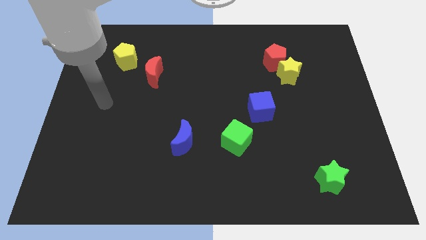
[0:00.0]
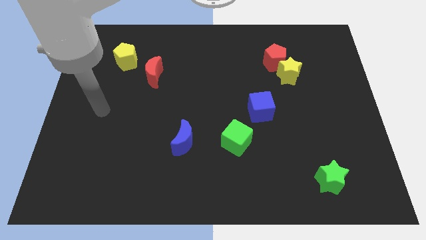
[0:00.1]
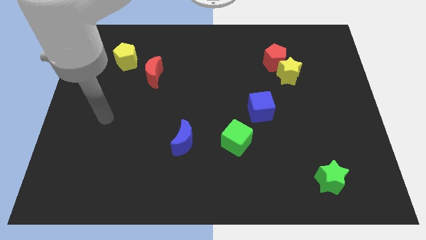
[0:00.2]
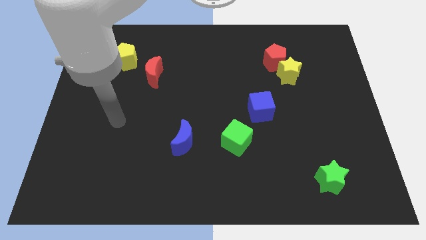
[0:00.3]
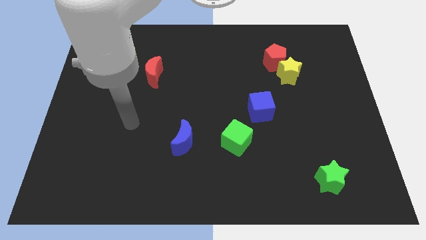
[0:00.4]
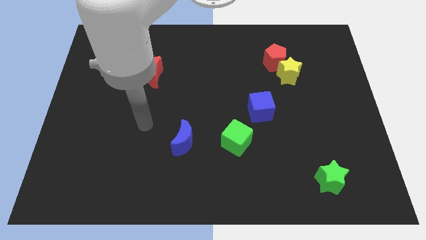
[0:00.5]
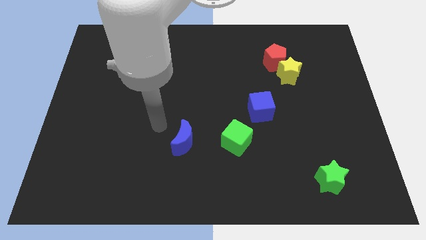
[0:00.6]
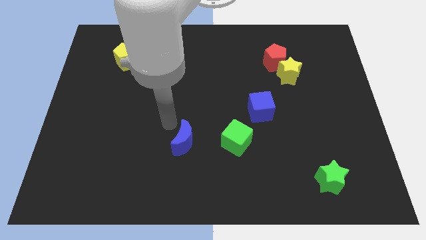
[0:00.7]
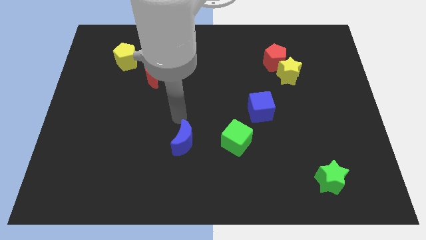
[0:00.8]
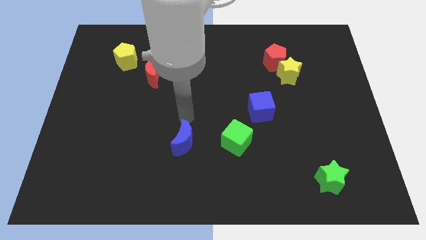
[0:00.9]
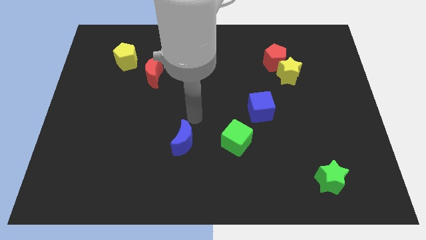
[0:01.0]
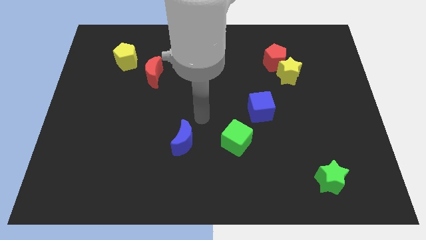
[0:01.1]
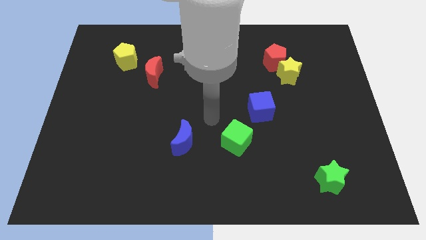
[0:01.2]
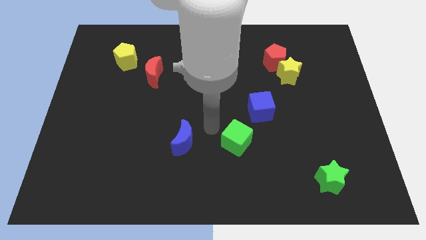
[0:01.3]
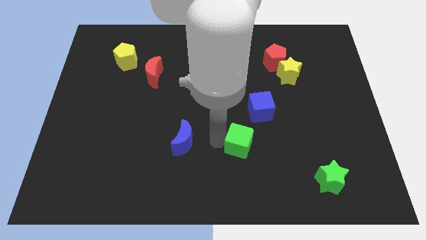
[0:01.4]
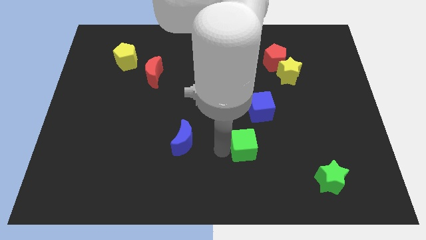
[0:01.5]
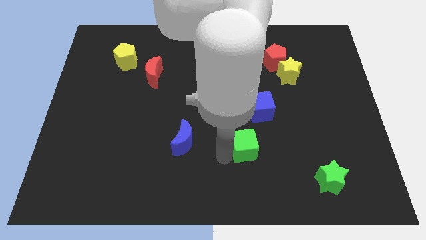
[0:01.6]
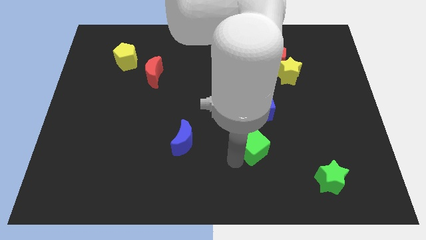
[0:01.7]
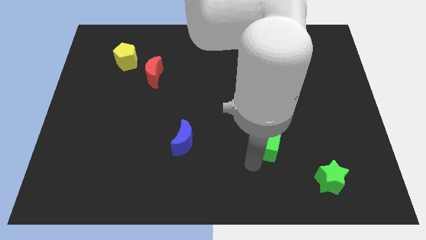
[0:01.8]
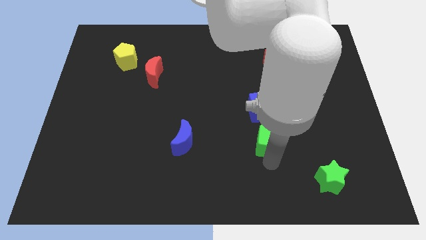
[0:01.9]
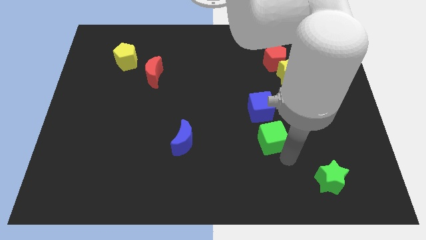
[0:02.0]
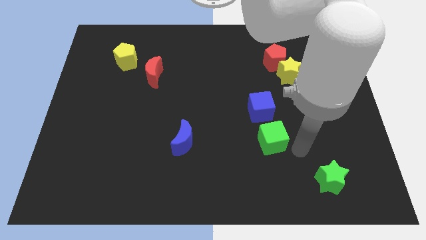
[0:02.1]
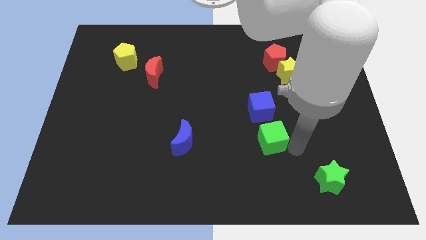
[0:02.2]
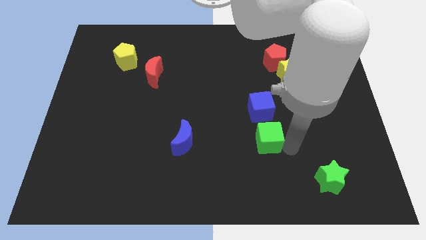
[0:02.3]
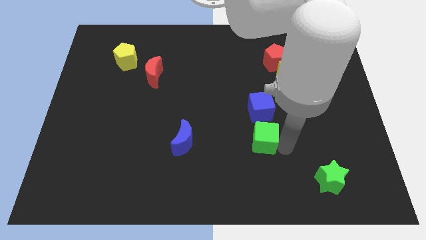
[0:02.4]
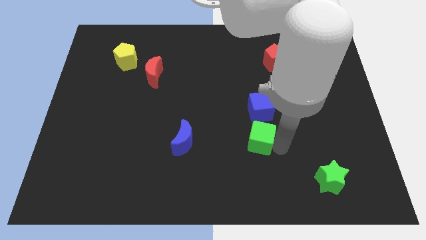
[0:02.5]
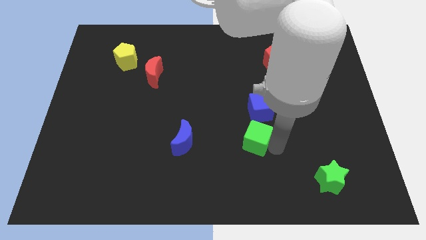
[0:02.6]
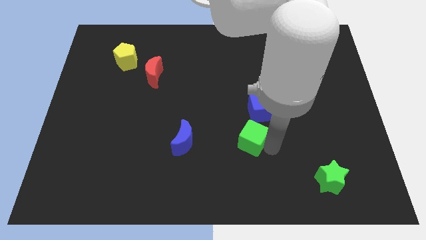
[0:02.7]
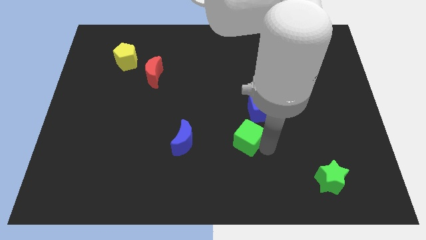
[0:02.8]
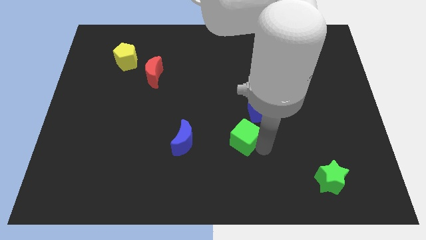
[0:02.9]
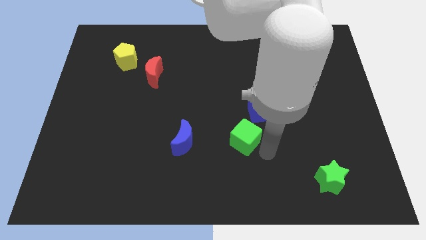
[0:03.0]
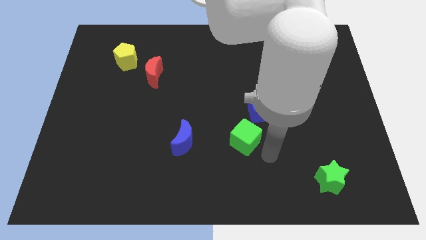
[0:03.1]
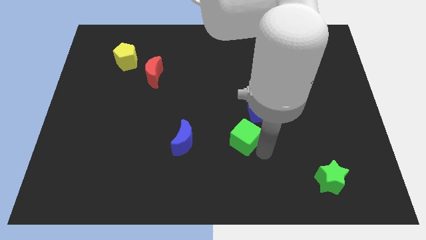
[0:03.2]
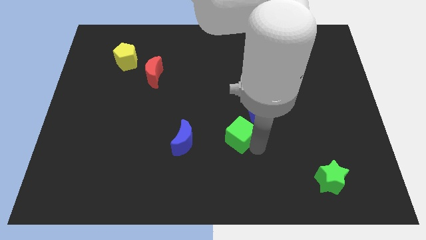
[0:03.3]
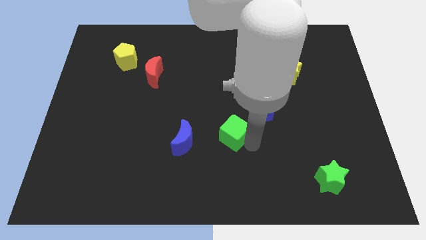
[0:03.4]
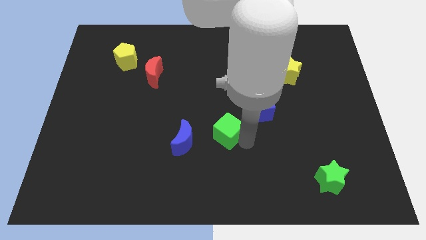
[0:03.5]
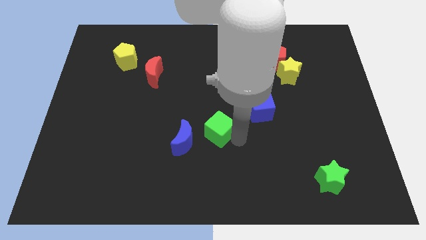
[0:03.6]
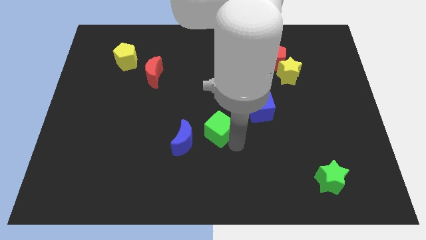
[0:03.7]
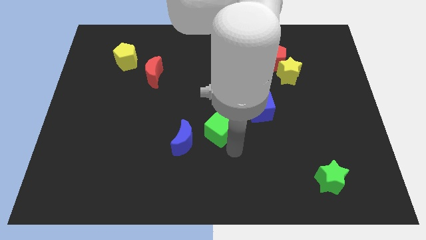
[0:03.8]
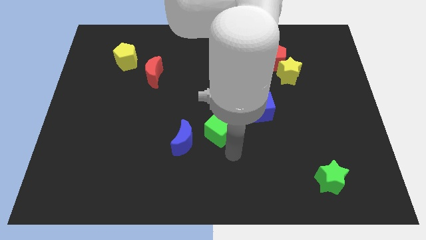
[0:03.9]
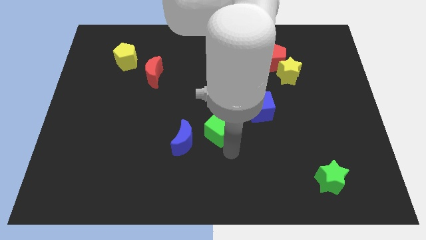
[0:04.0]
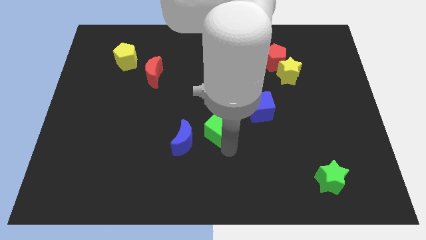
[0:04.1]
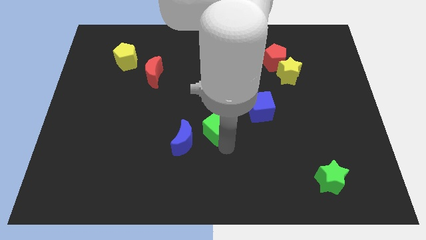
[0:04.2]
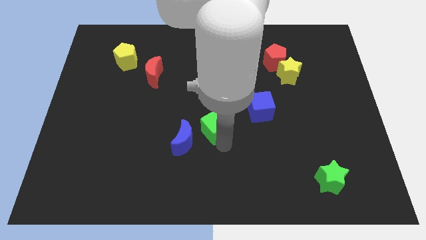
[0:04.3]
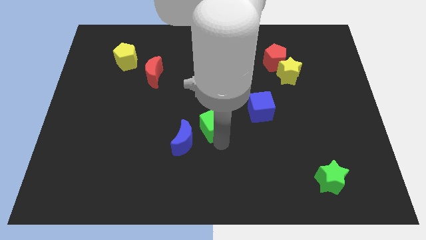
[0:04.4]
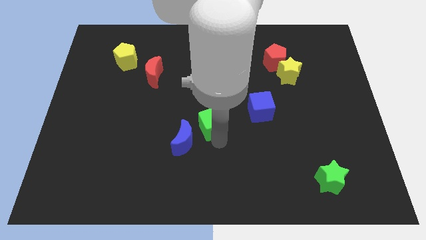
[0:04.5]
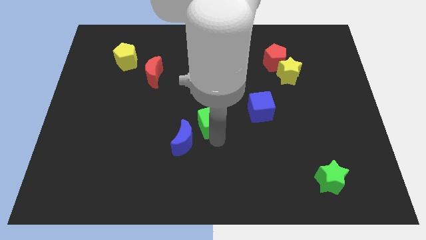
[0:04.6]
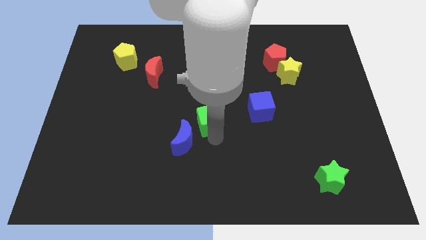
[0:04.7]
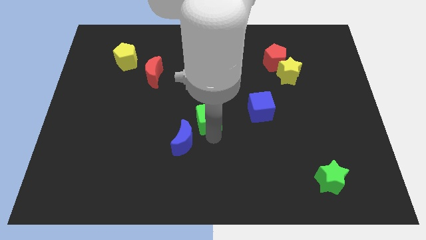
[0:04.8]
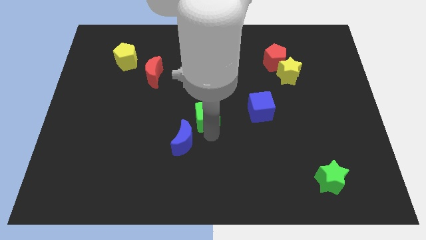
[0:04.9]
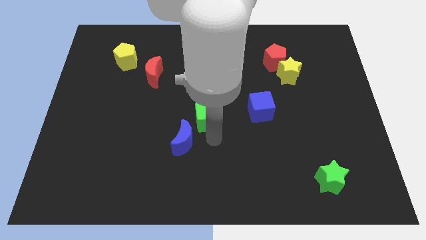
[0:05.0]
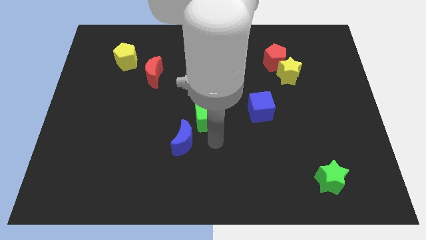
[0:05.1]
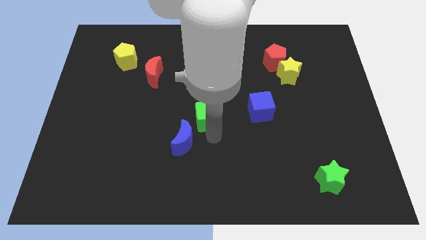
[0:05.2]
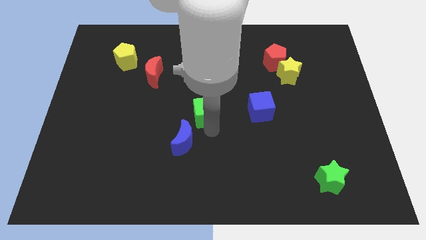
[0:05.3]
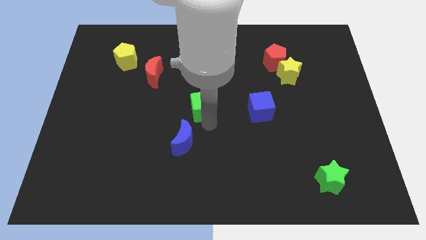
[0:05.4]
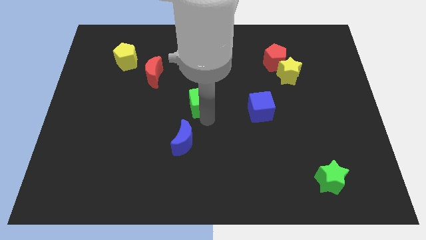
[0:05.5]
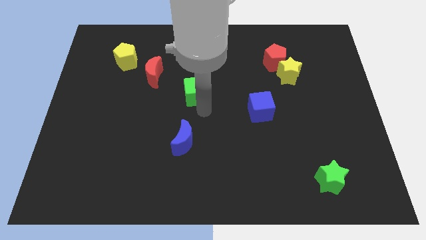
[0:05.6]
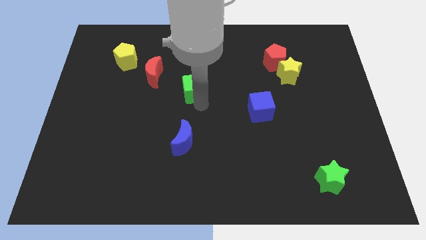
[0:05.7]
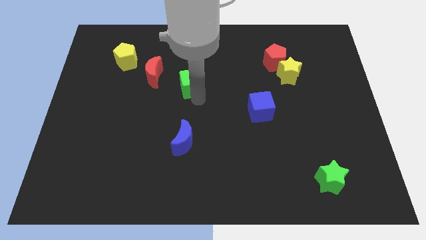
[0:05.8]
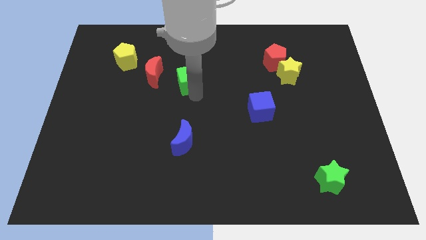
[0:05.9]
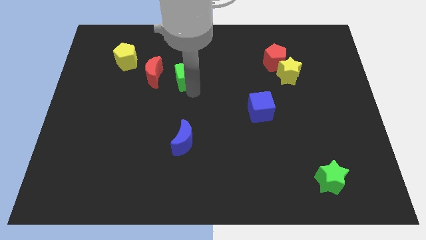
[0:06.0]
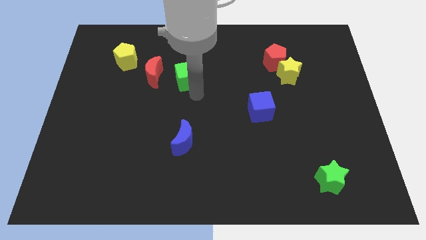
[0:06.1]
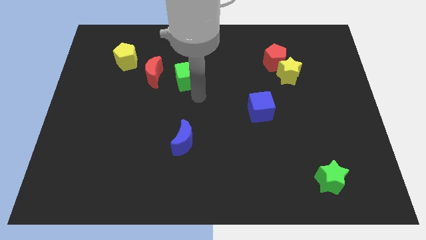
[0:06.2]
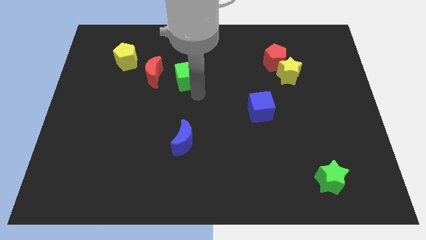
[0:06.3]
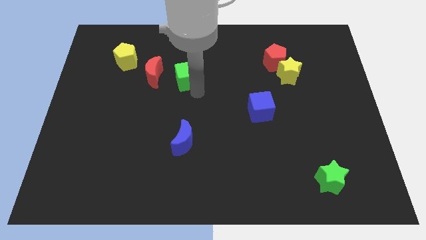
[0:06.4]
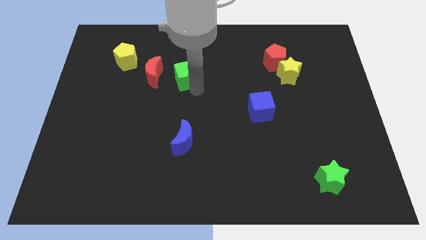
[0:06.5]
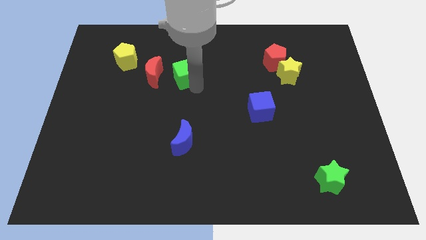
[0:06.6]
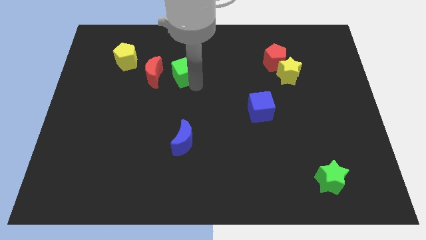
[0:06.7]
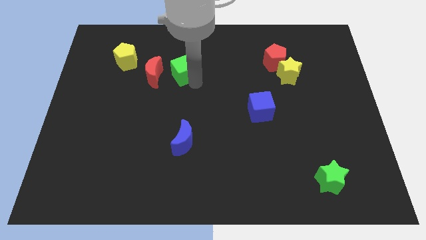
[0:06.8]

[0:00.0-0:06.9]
put the green cube to the top right of the red moon
